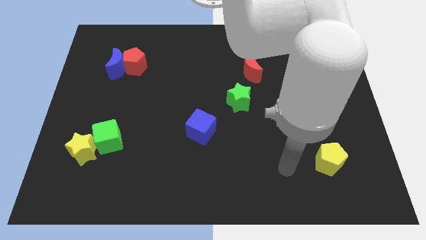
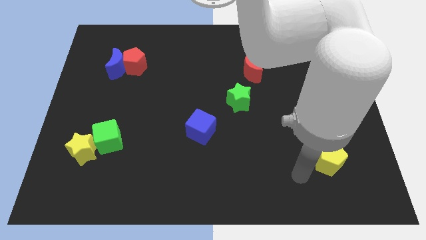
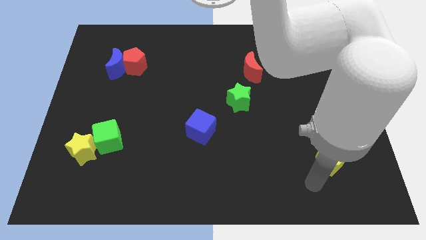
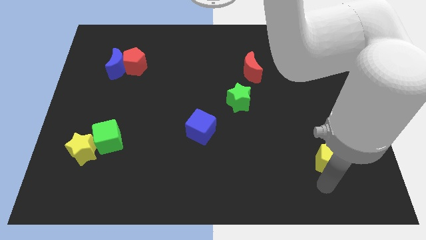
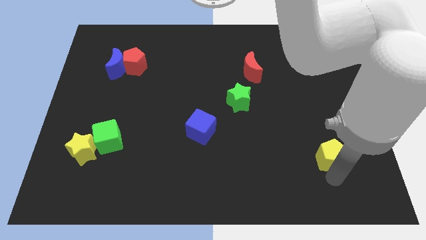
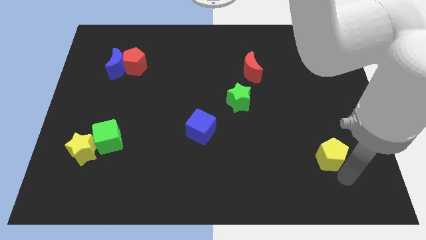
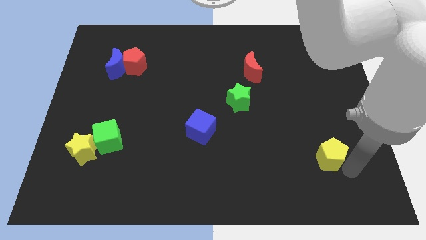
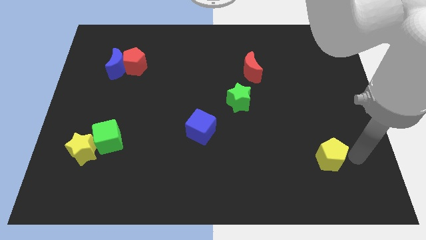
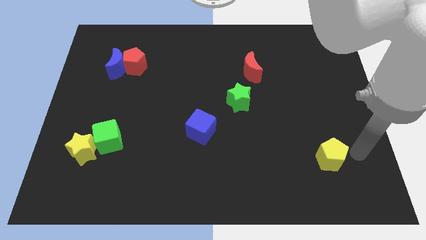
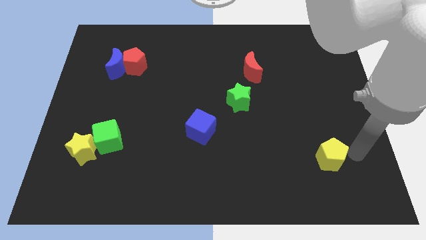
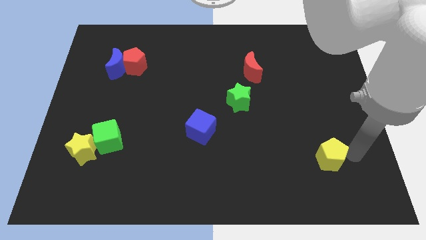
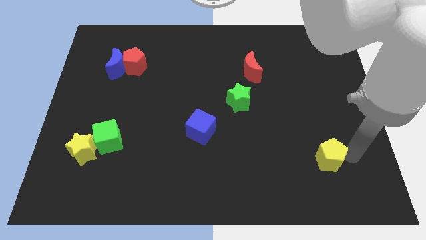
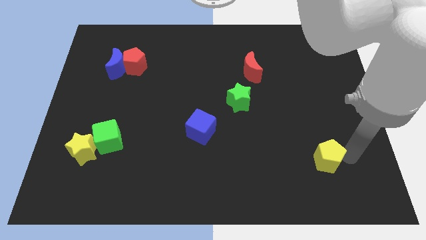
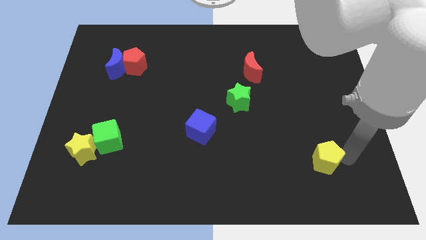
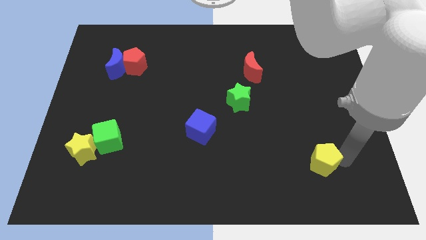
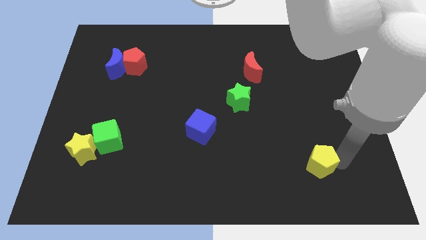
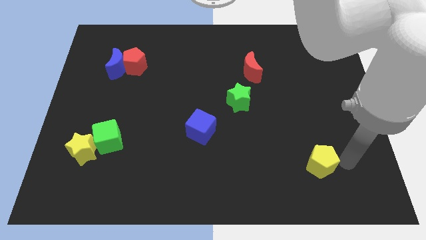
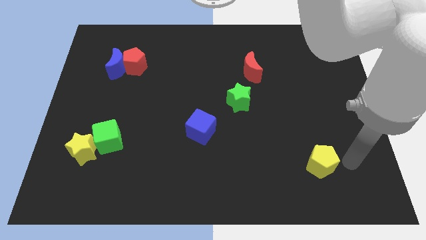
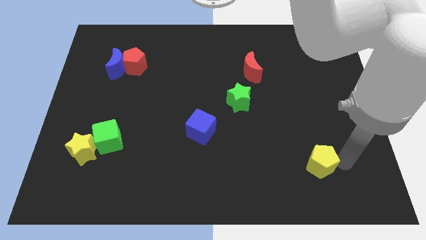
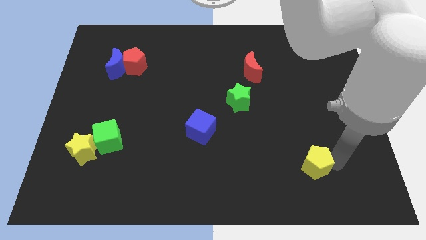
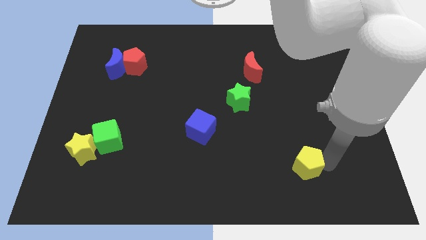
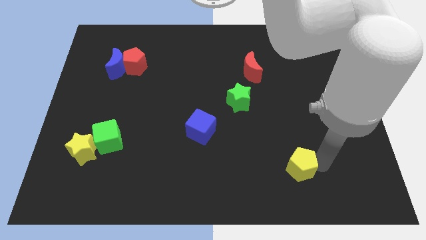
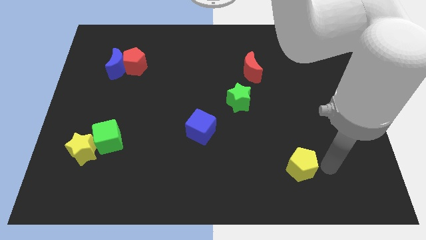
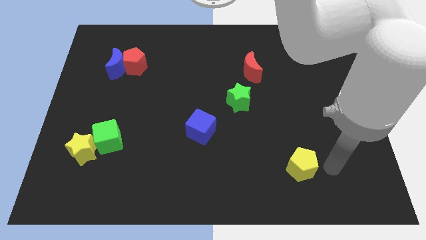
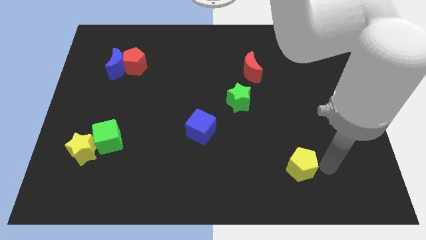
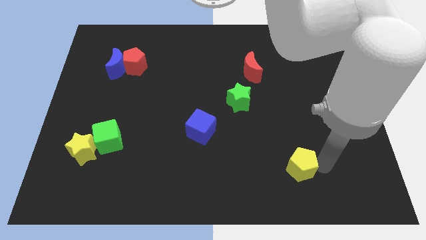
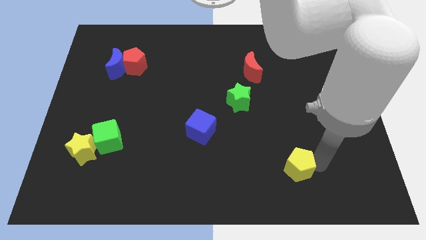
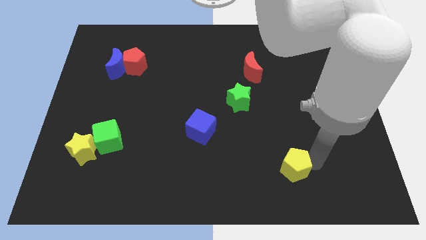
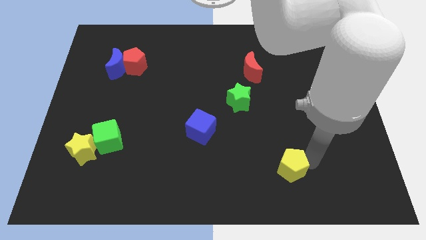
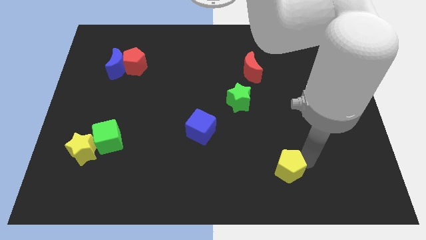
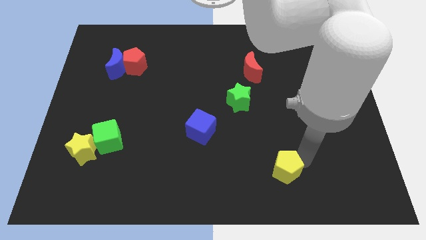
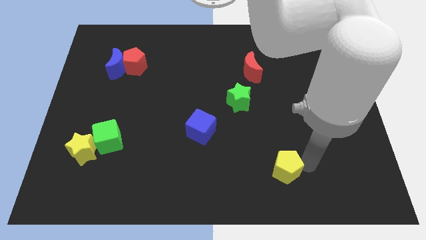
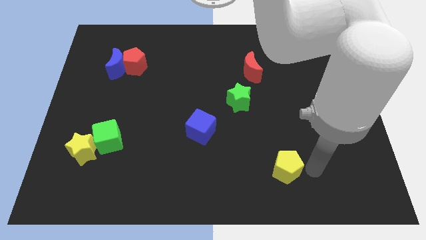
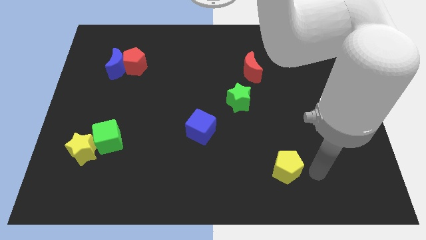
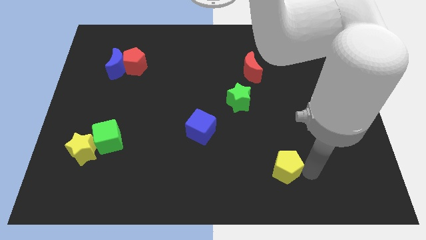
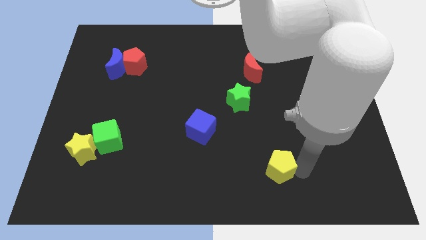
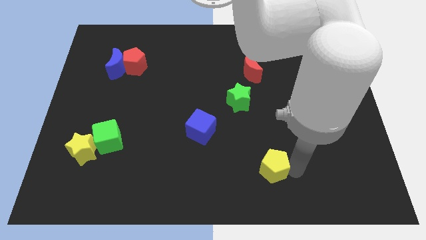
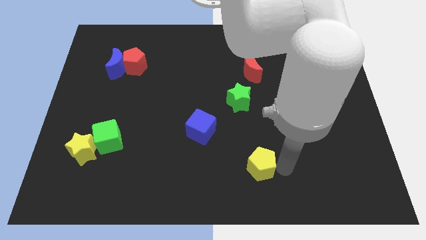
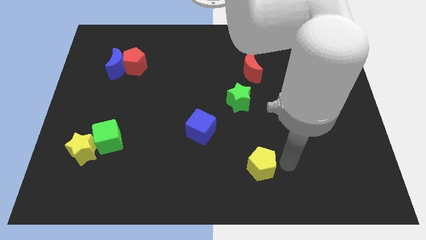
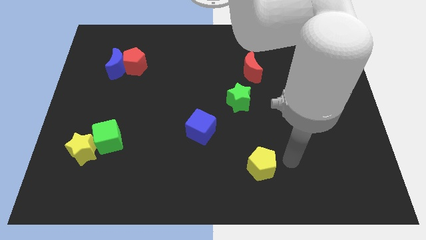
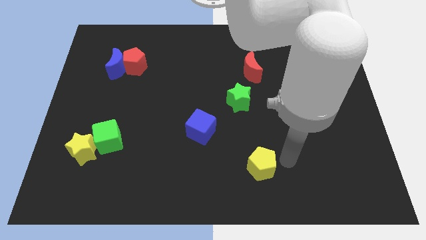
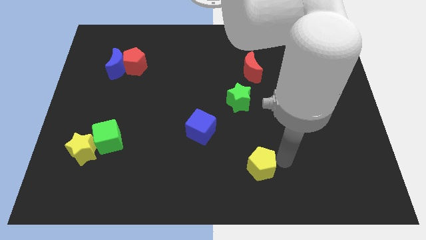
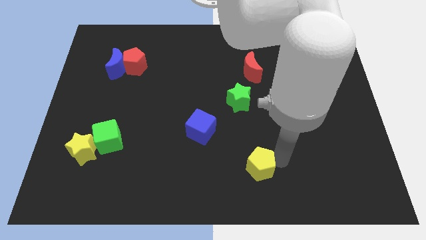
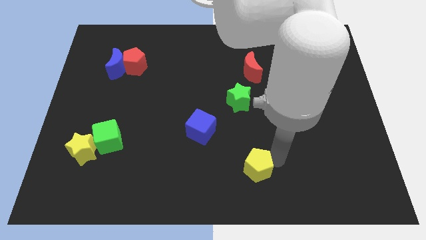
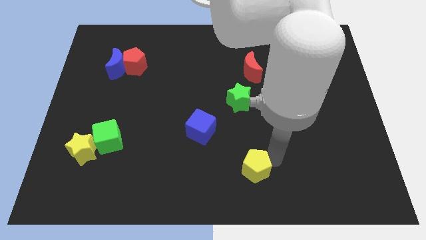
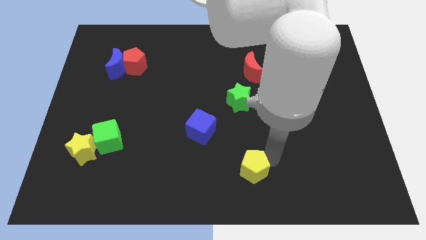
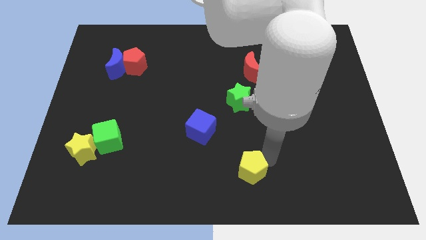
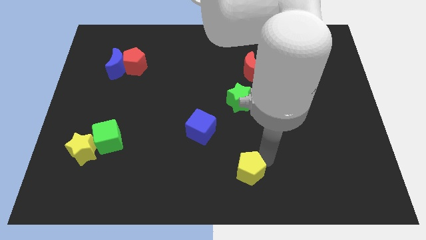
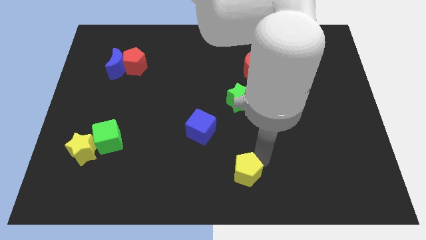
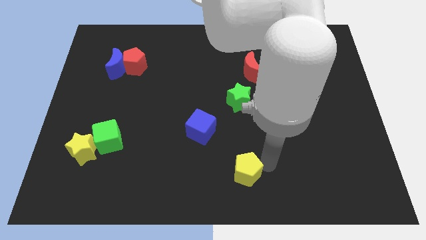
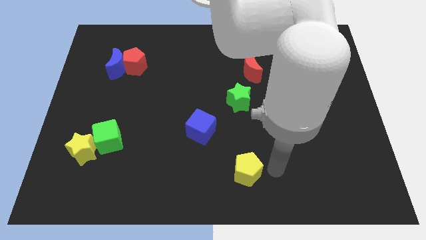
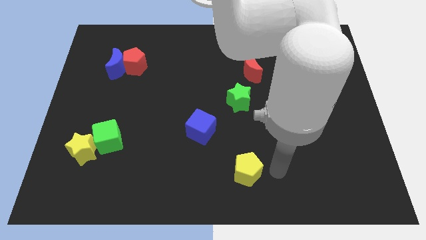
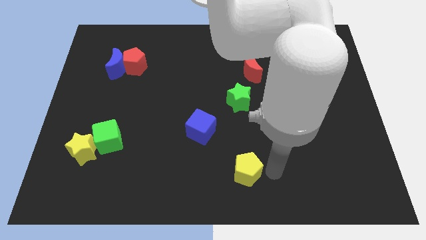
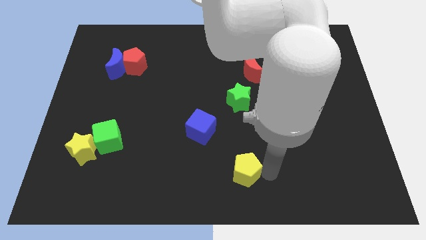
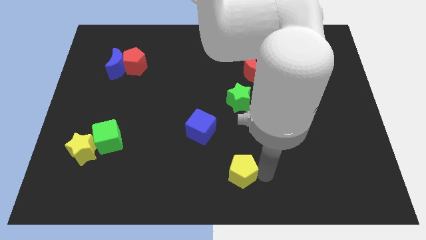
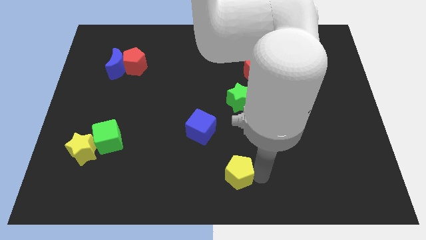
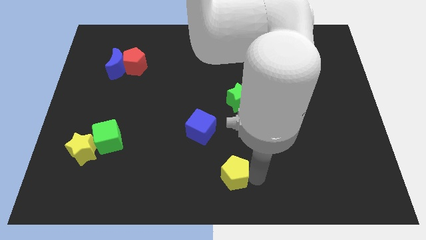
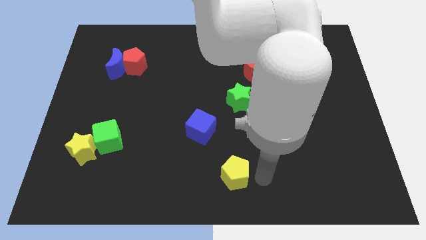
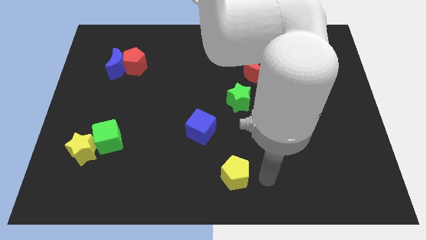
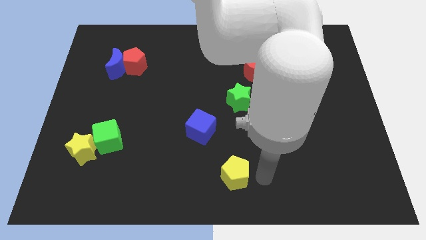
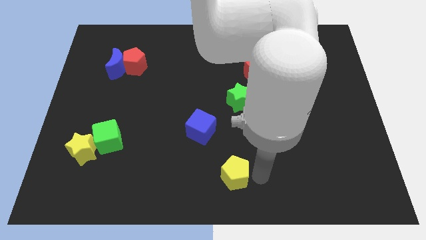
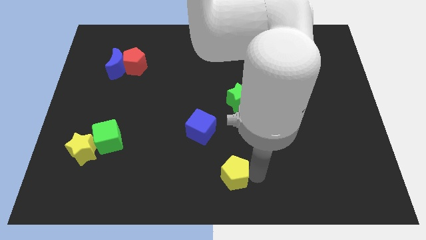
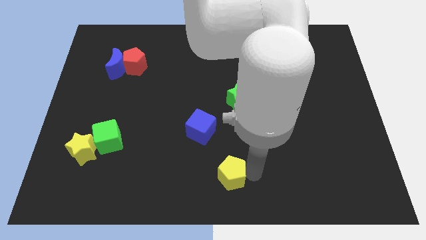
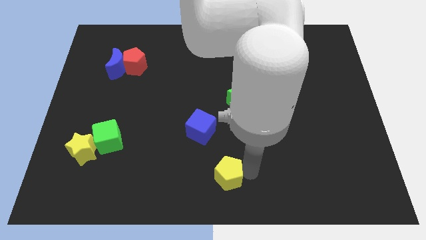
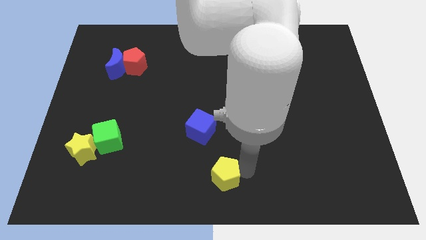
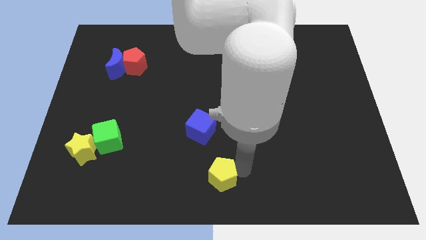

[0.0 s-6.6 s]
push the yellow pentagon below the blue cube

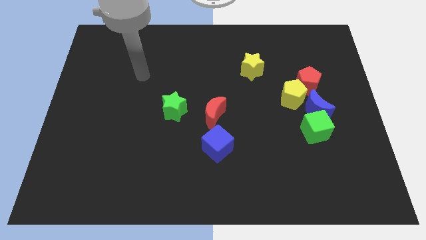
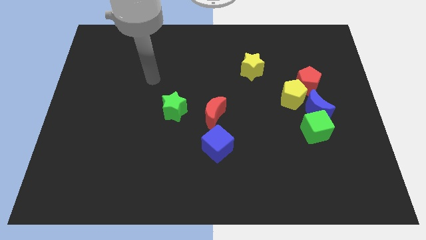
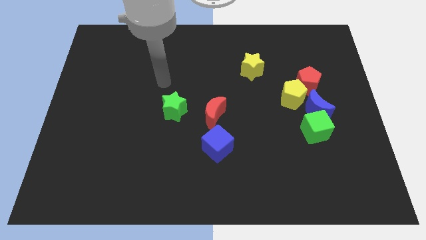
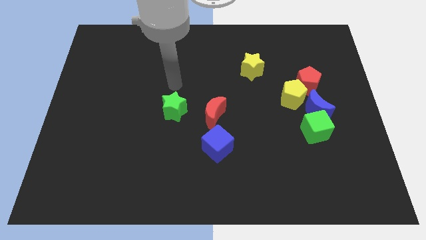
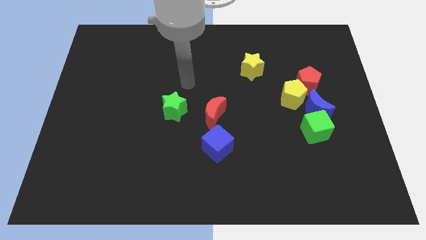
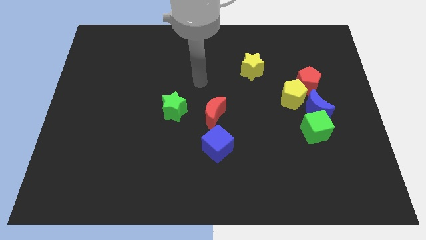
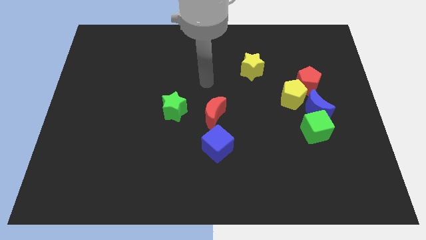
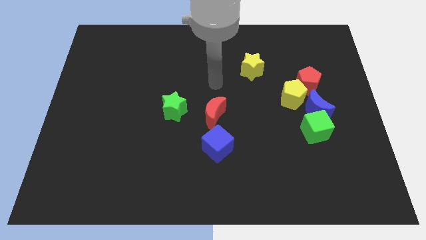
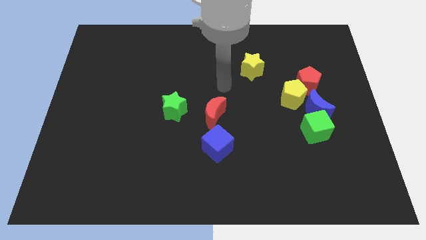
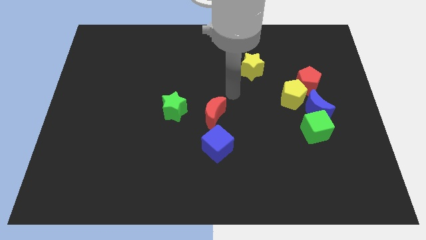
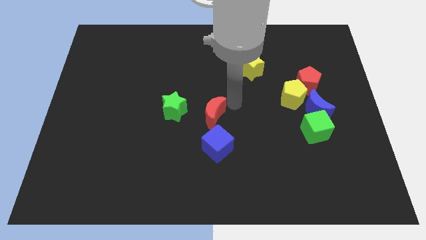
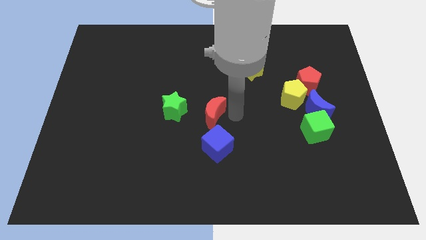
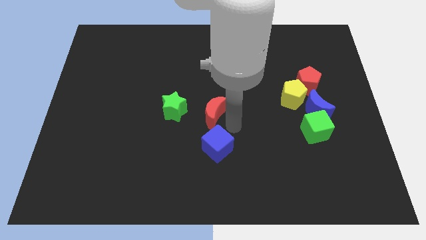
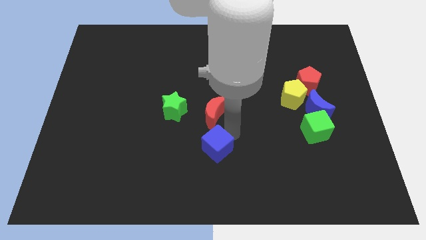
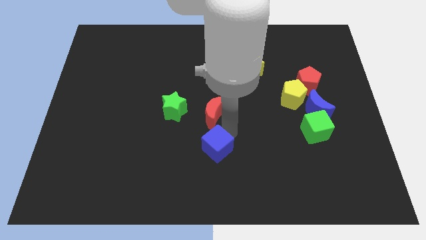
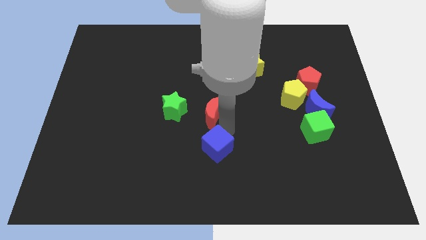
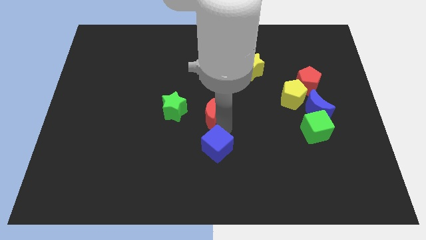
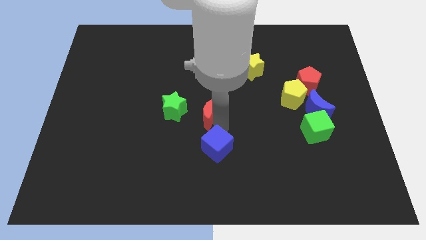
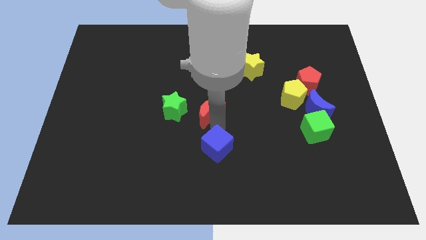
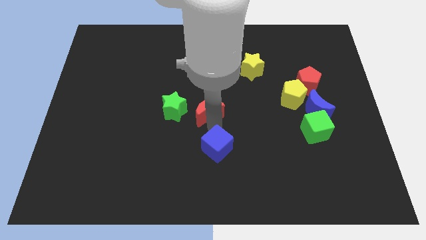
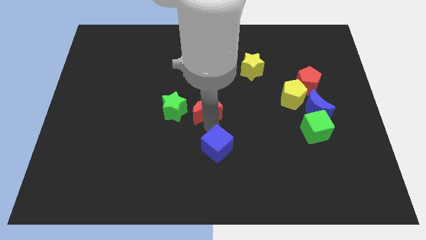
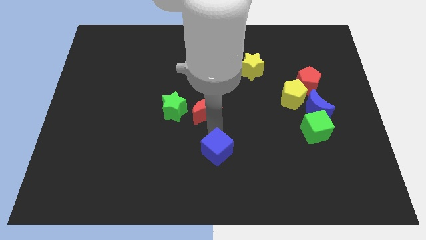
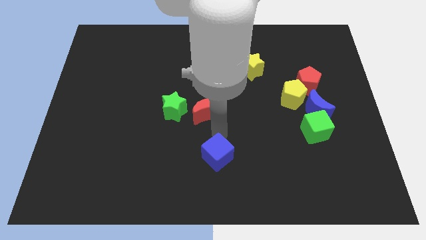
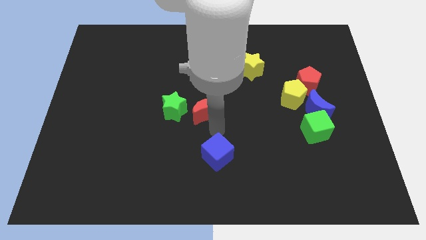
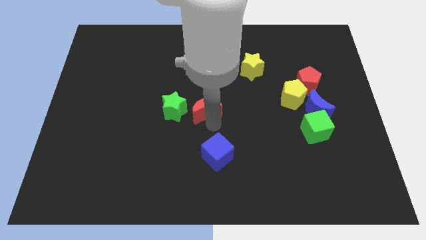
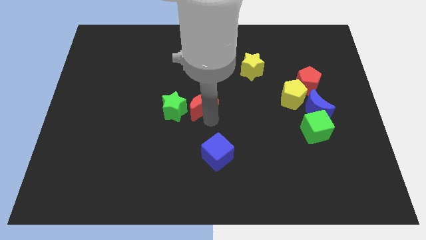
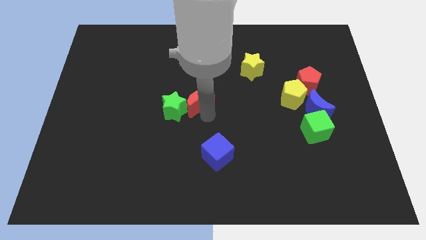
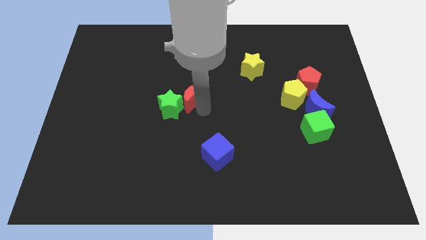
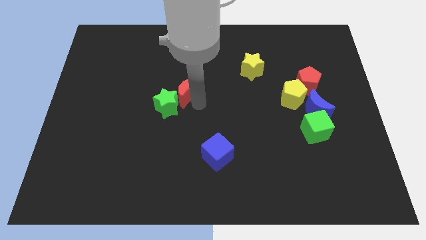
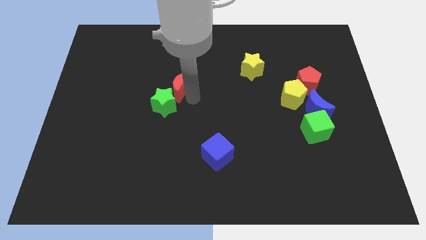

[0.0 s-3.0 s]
push the red moon above the green star
